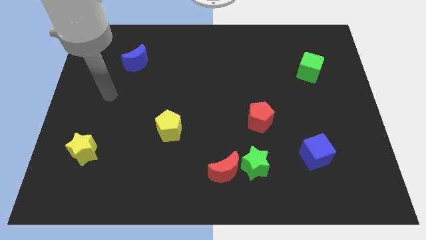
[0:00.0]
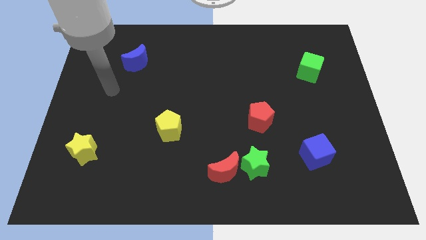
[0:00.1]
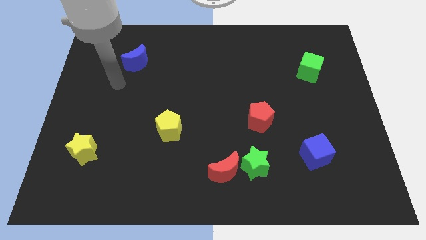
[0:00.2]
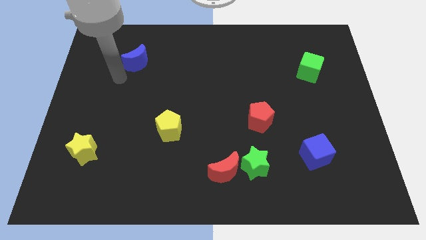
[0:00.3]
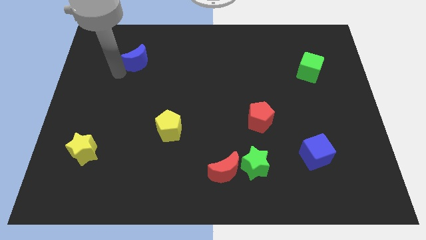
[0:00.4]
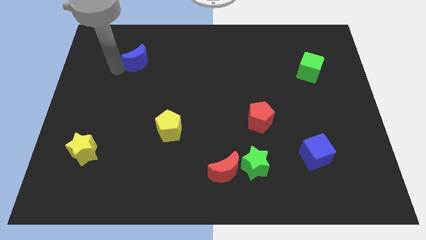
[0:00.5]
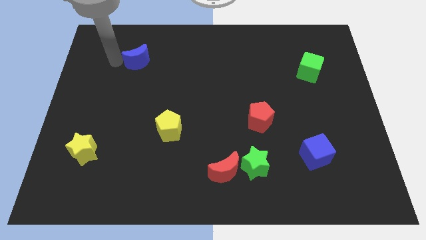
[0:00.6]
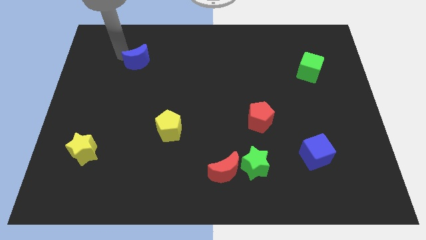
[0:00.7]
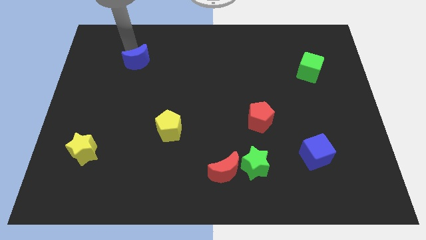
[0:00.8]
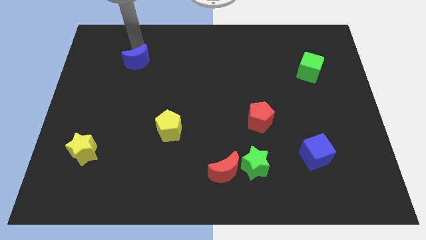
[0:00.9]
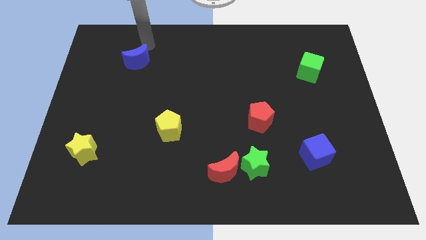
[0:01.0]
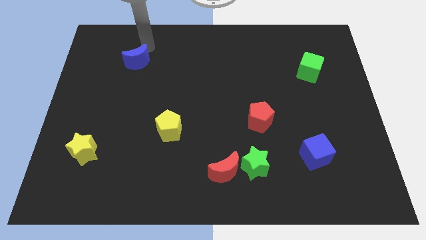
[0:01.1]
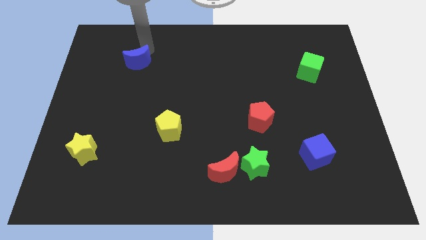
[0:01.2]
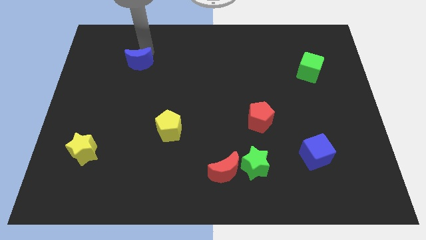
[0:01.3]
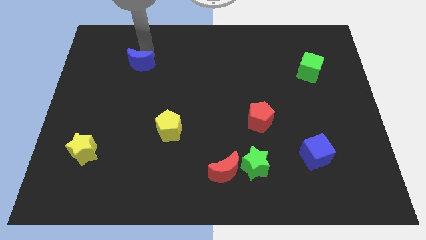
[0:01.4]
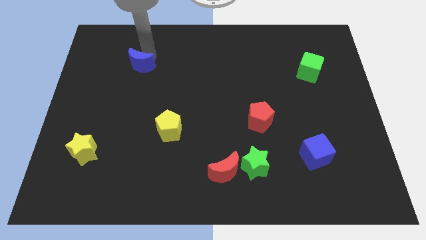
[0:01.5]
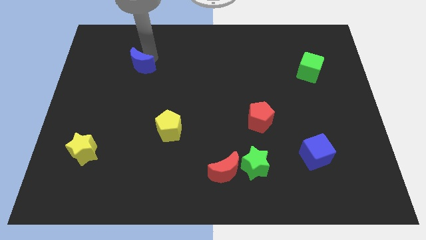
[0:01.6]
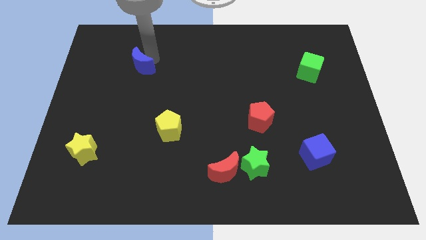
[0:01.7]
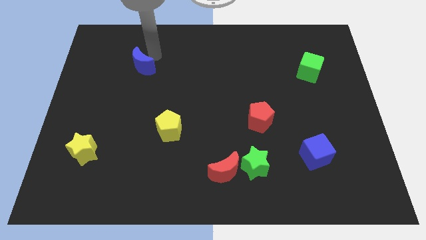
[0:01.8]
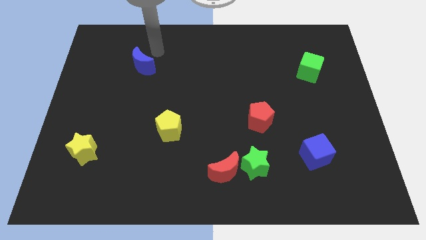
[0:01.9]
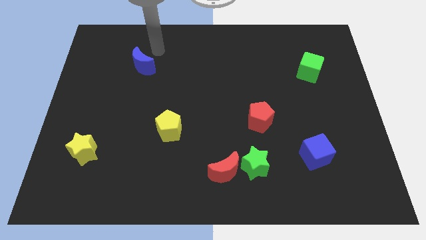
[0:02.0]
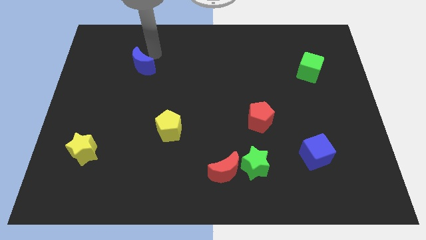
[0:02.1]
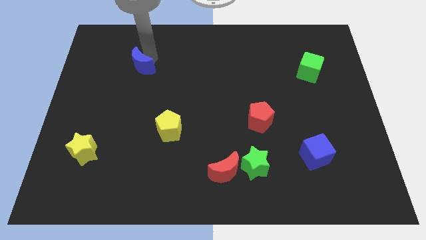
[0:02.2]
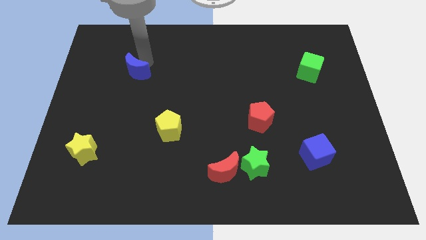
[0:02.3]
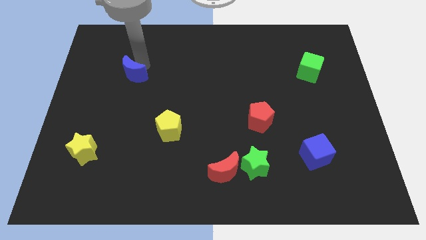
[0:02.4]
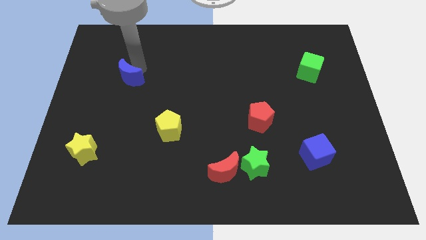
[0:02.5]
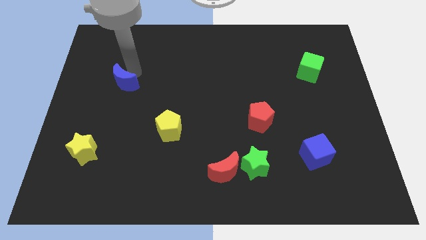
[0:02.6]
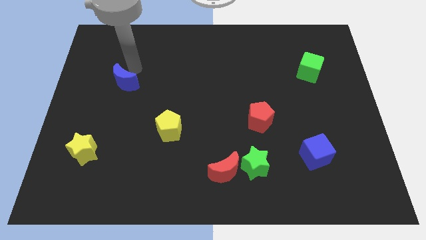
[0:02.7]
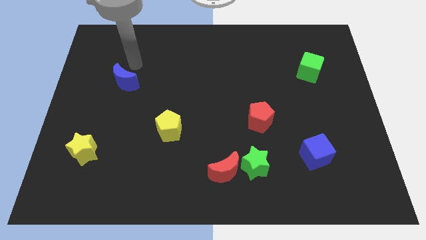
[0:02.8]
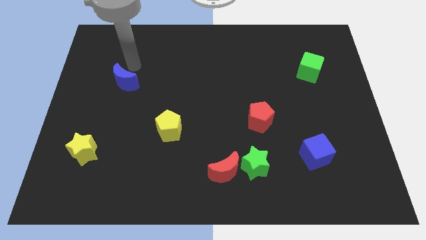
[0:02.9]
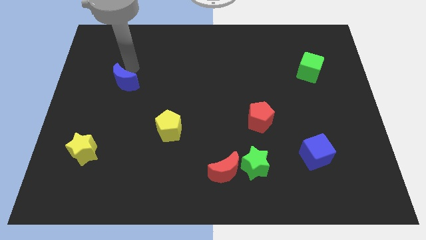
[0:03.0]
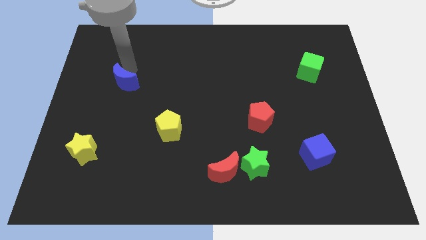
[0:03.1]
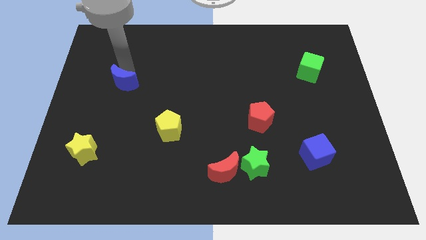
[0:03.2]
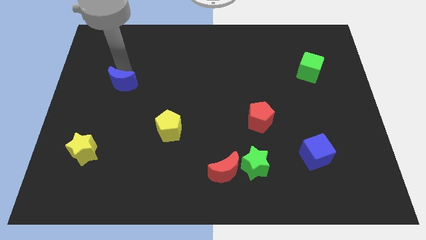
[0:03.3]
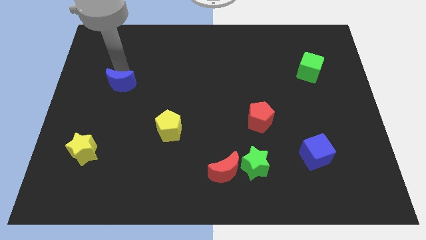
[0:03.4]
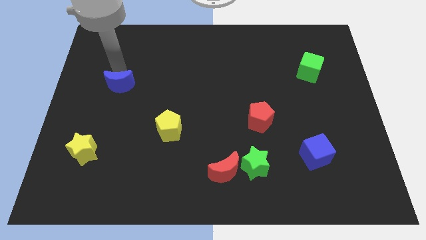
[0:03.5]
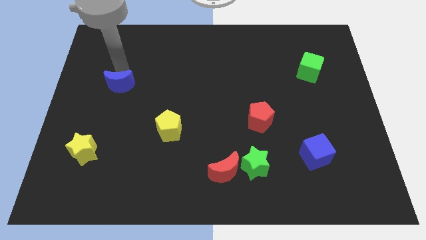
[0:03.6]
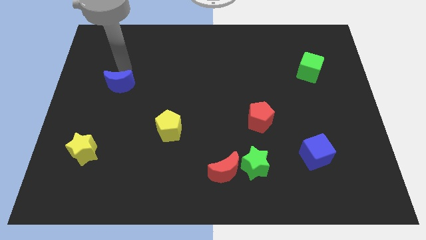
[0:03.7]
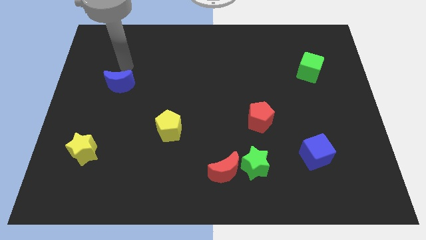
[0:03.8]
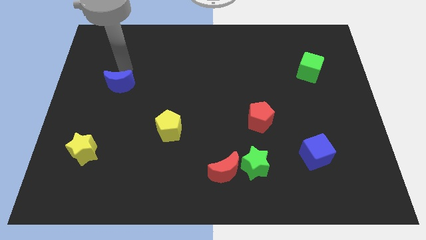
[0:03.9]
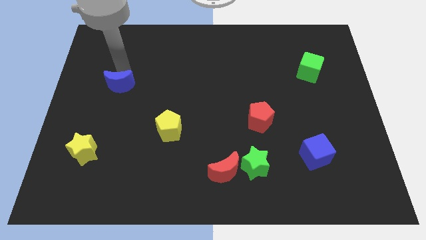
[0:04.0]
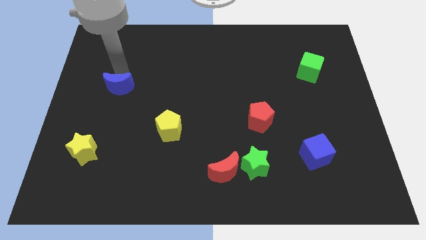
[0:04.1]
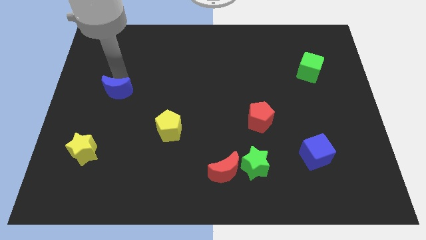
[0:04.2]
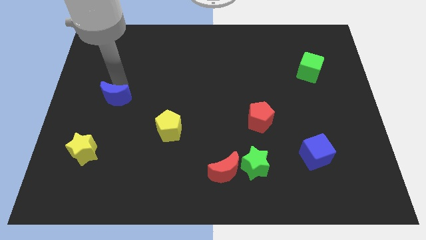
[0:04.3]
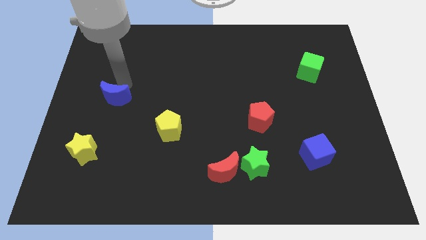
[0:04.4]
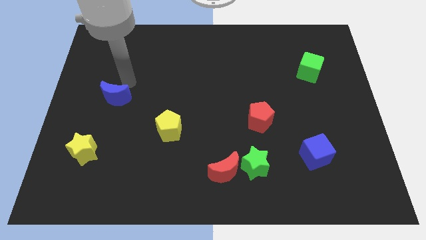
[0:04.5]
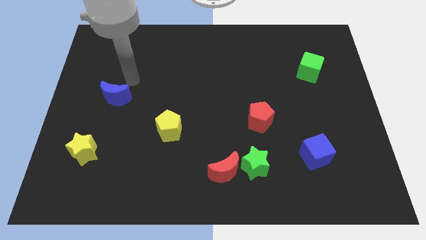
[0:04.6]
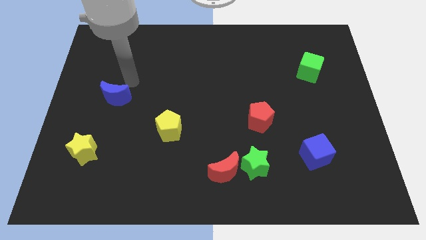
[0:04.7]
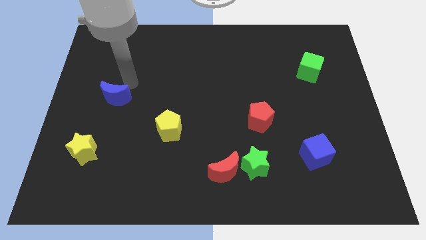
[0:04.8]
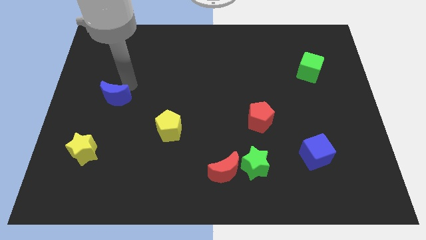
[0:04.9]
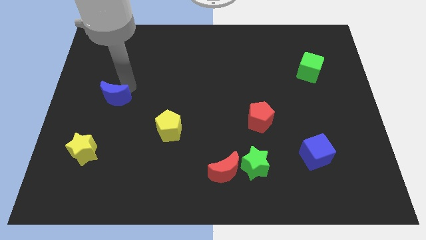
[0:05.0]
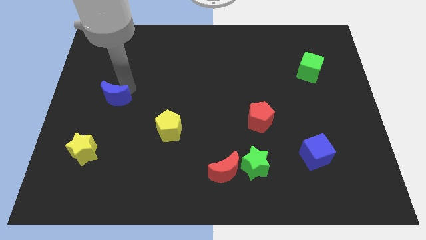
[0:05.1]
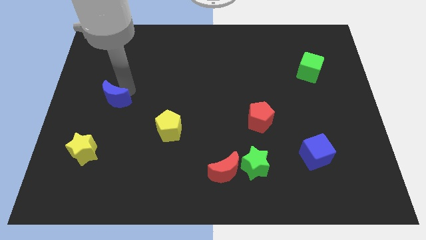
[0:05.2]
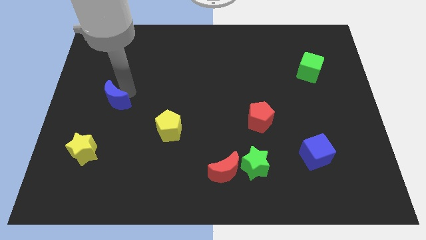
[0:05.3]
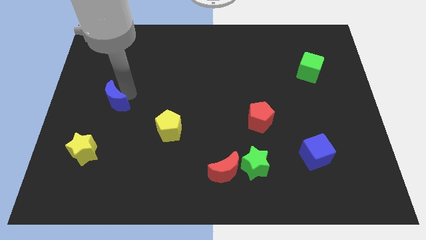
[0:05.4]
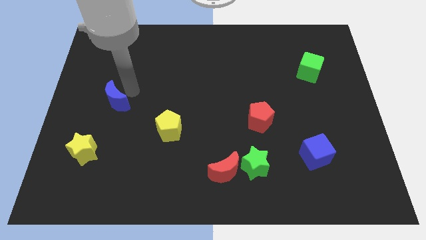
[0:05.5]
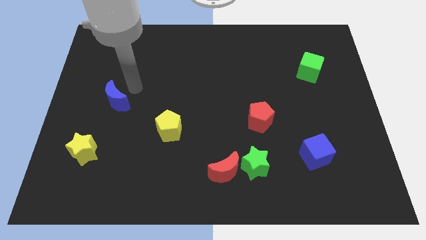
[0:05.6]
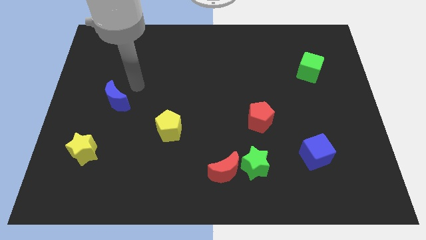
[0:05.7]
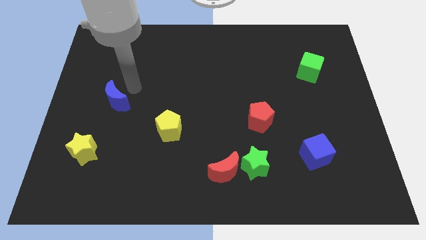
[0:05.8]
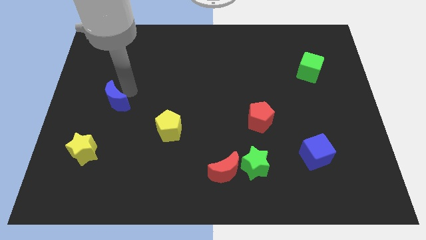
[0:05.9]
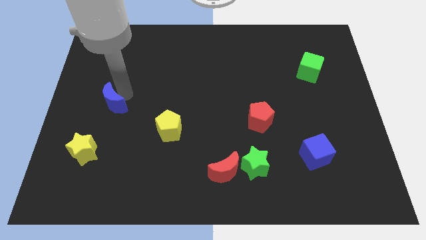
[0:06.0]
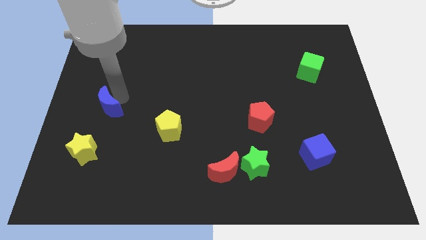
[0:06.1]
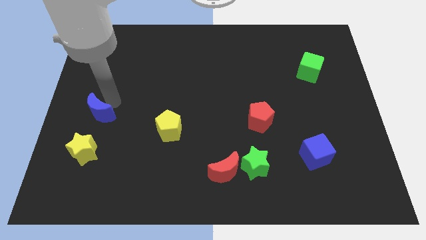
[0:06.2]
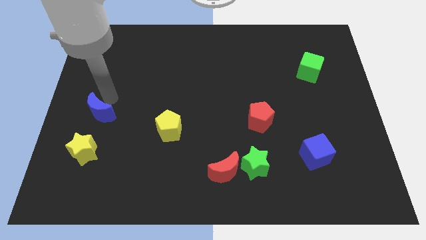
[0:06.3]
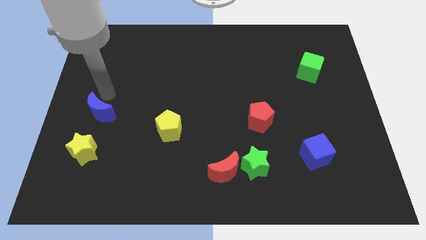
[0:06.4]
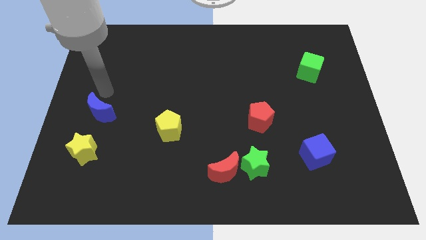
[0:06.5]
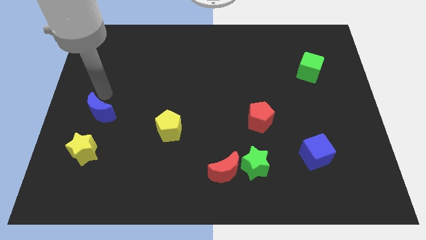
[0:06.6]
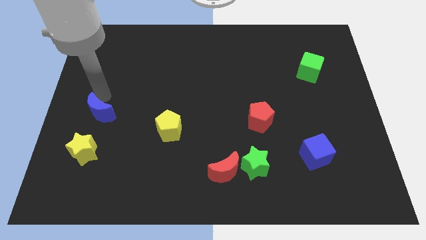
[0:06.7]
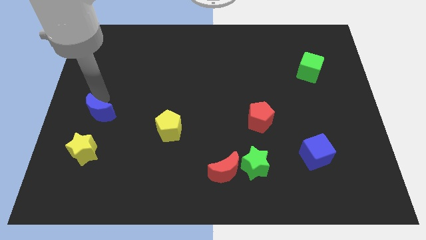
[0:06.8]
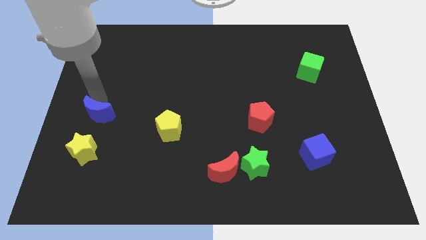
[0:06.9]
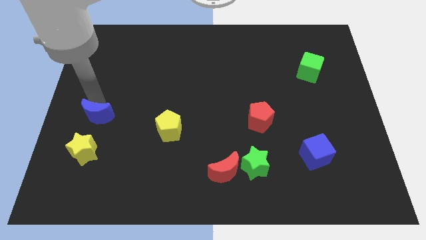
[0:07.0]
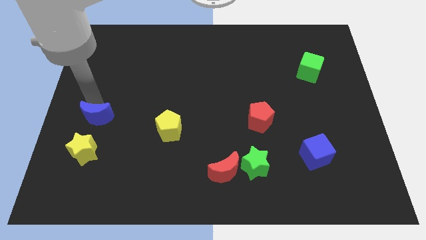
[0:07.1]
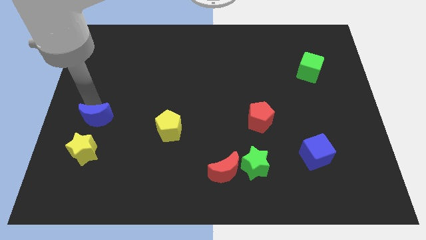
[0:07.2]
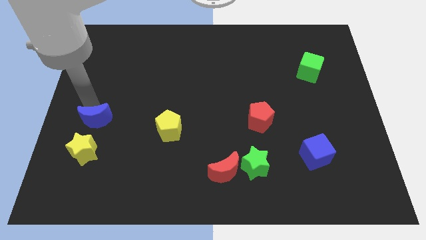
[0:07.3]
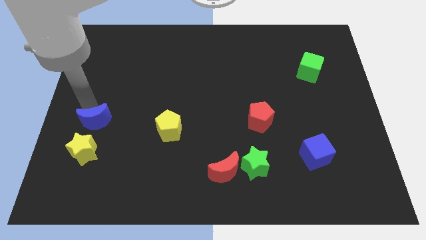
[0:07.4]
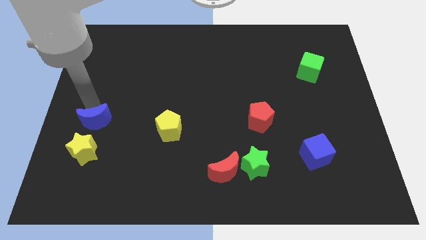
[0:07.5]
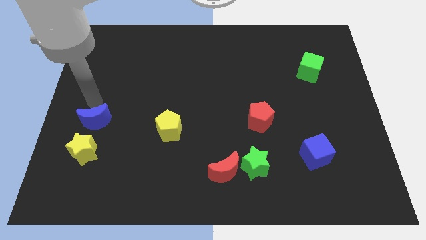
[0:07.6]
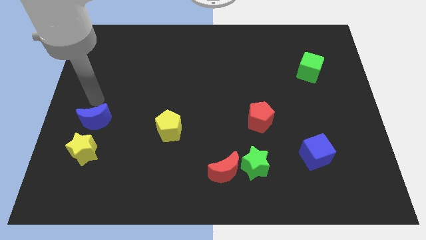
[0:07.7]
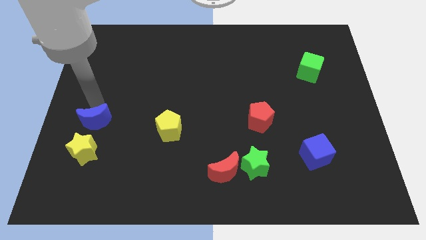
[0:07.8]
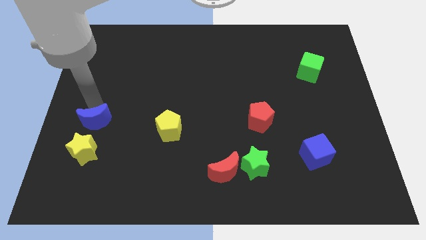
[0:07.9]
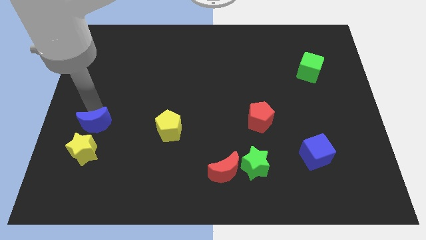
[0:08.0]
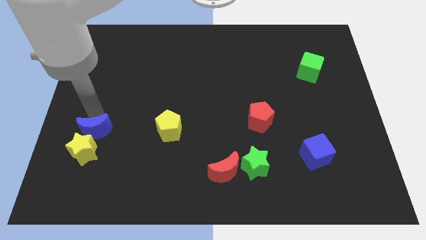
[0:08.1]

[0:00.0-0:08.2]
move the blue moon close to the yellow star

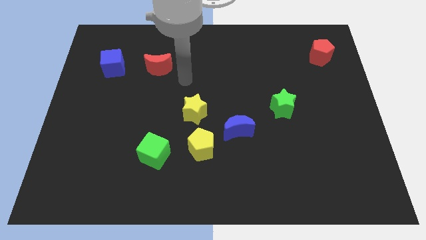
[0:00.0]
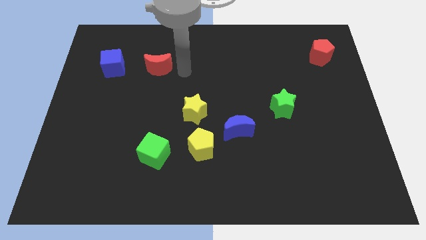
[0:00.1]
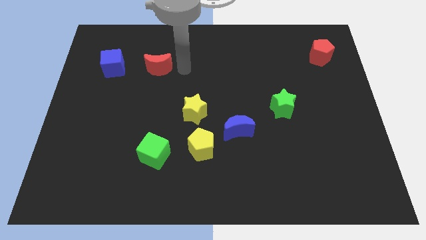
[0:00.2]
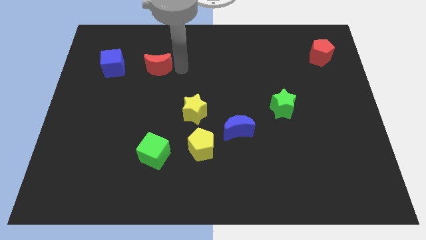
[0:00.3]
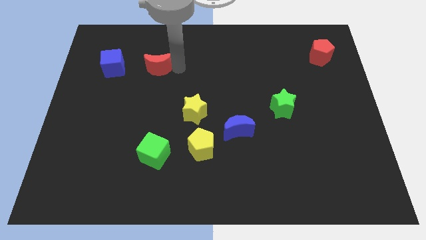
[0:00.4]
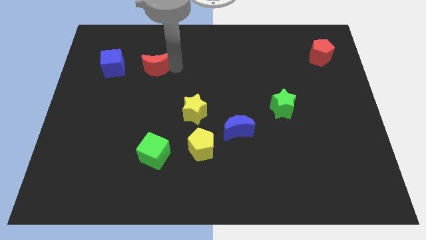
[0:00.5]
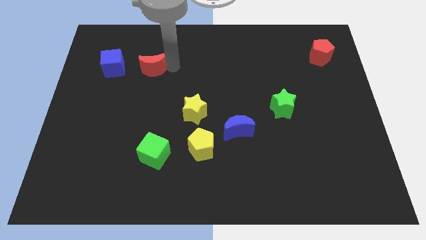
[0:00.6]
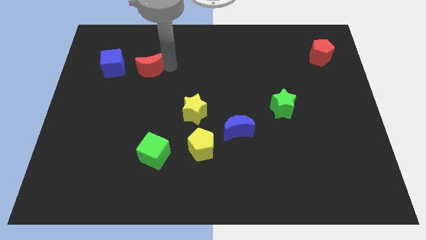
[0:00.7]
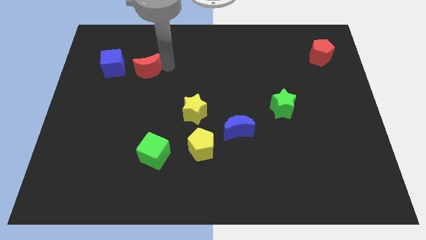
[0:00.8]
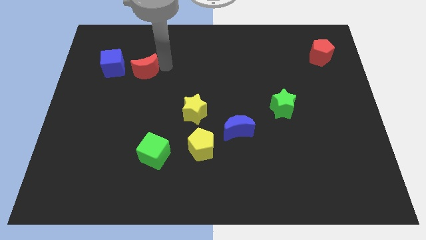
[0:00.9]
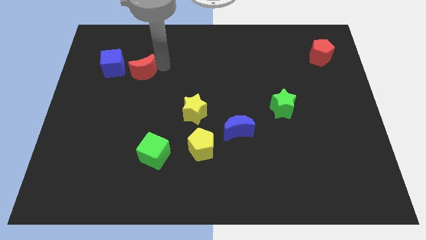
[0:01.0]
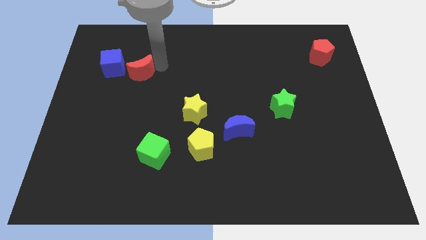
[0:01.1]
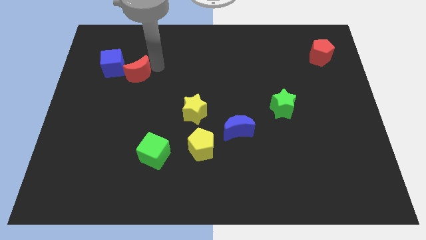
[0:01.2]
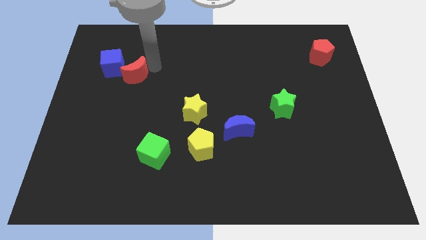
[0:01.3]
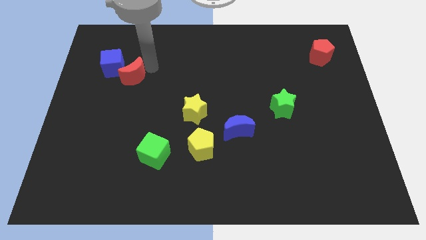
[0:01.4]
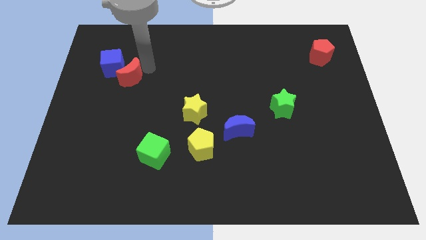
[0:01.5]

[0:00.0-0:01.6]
push the red moon next to the blue cube
